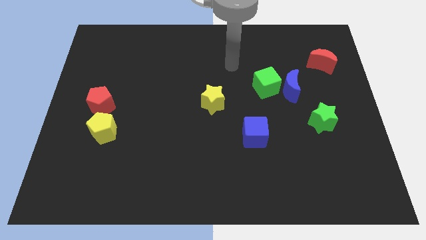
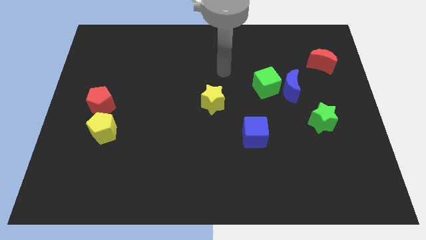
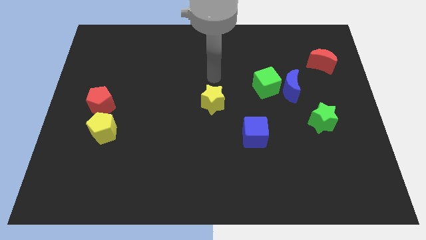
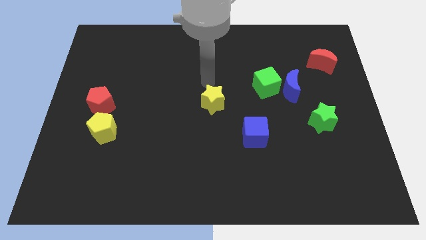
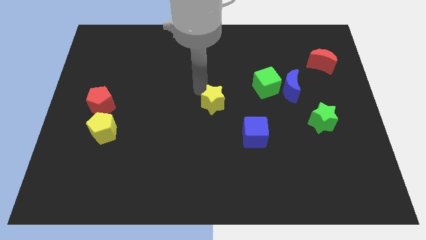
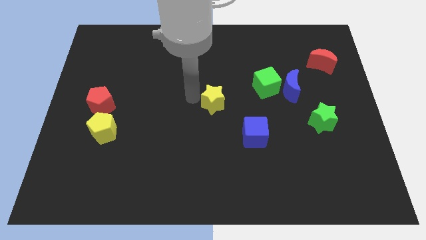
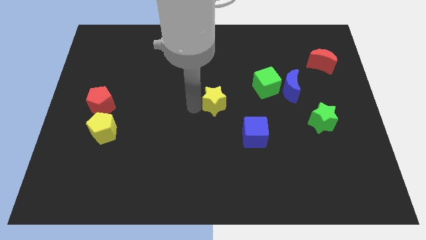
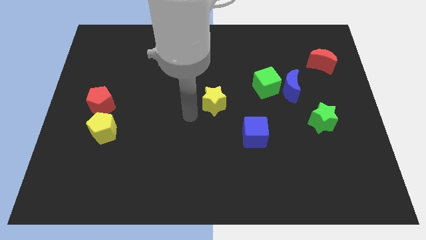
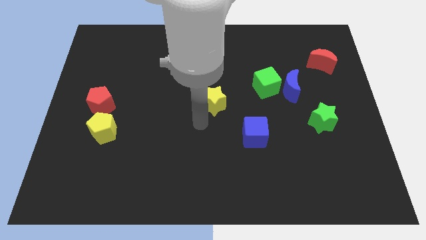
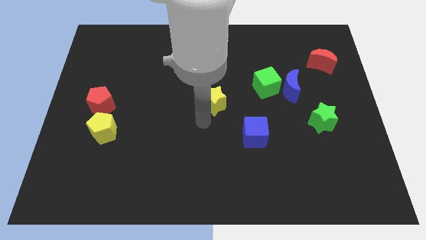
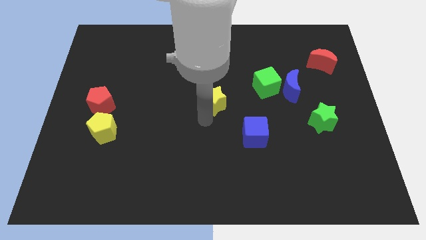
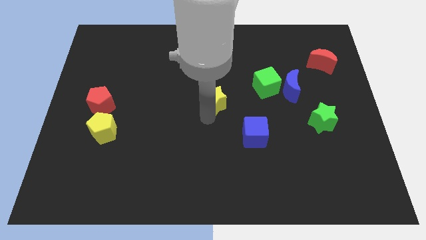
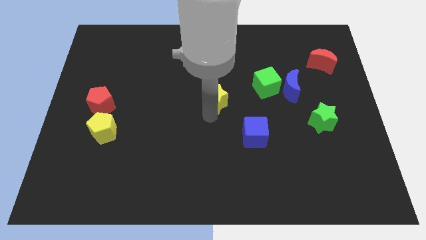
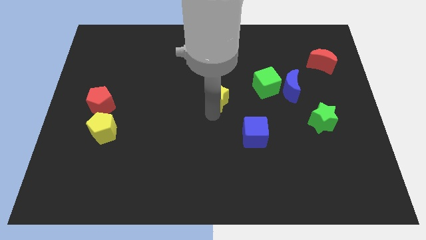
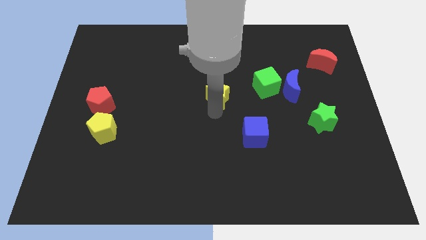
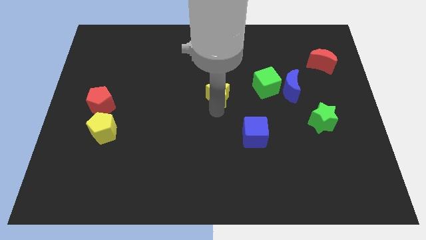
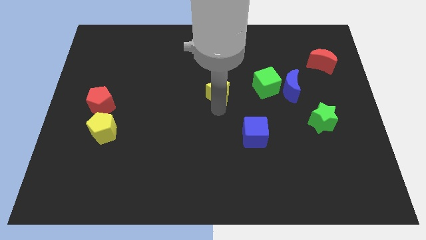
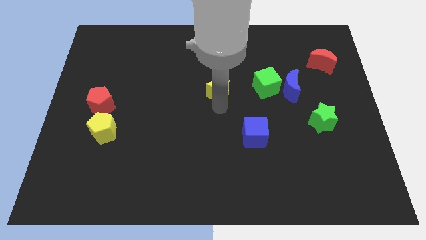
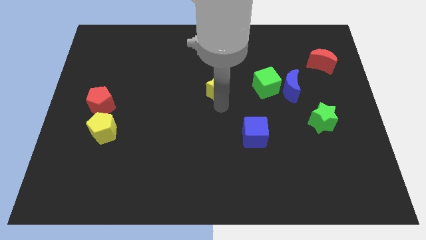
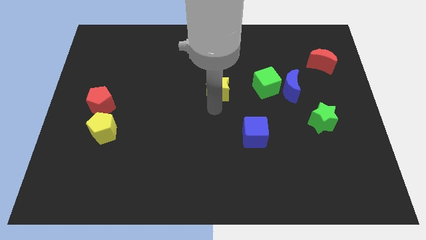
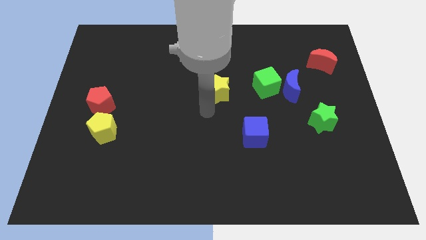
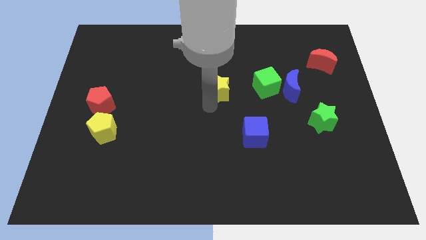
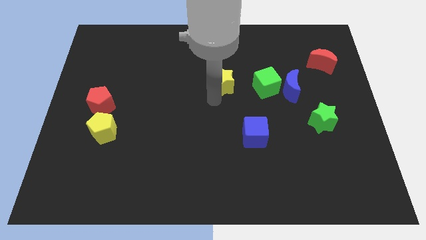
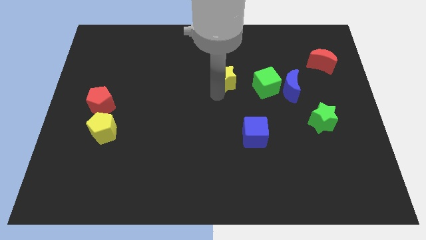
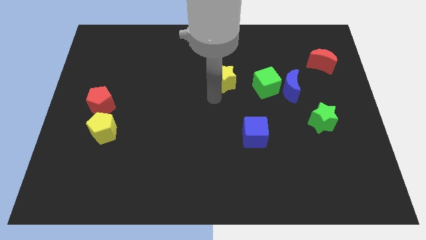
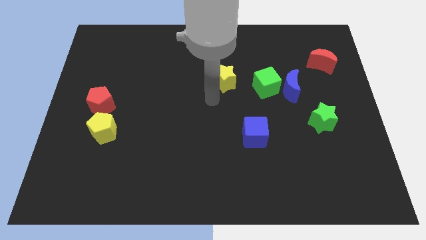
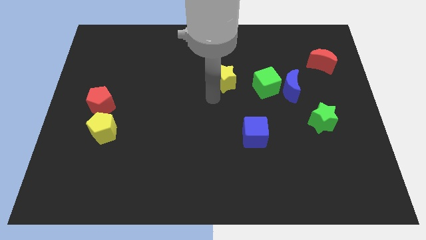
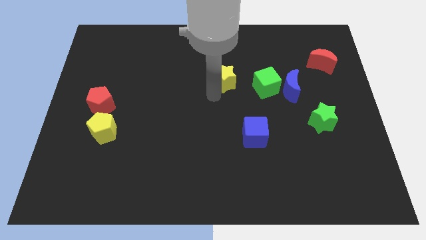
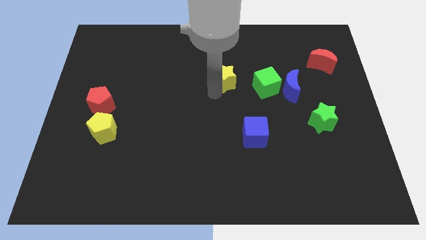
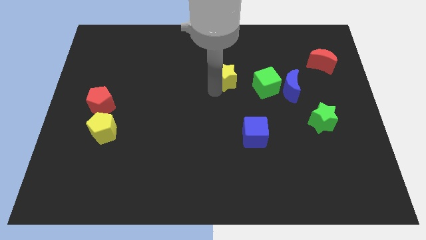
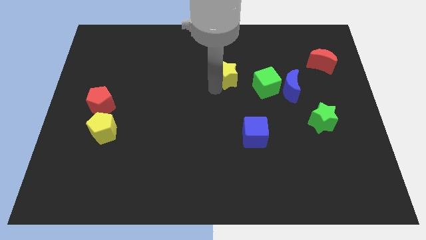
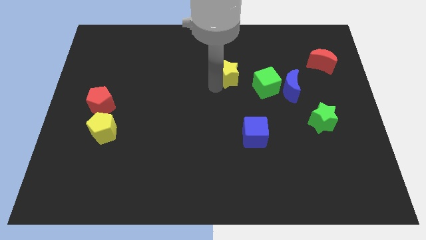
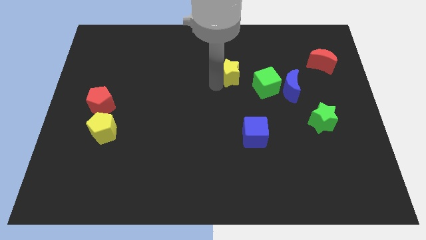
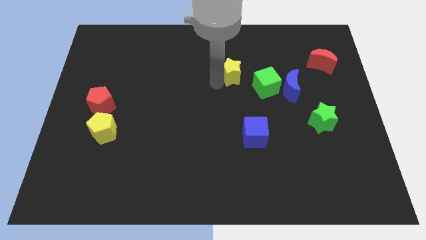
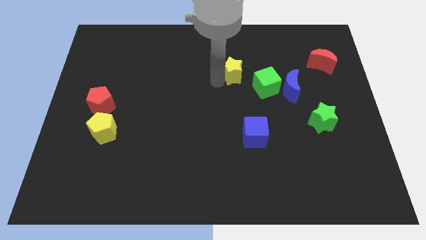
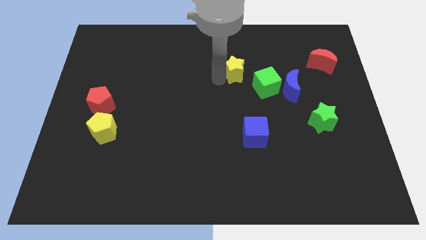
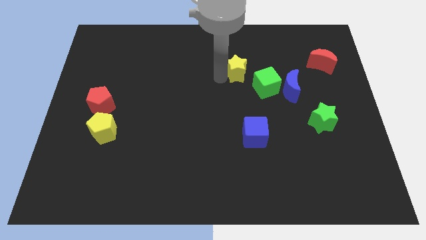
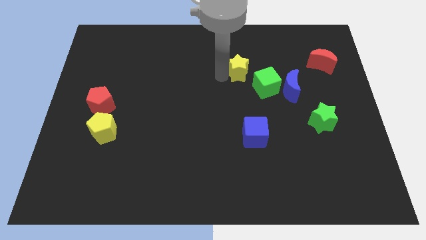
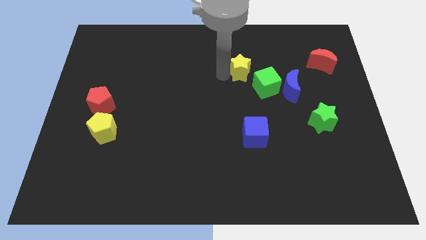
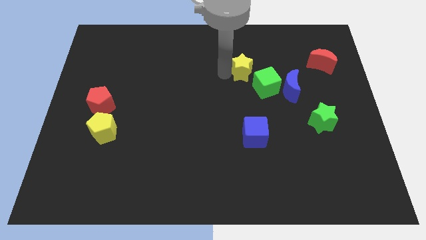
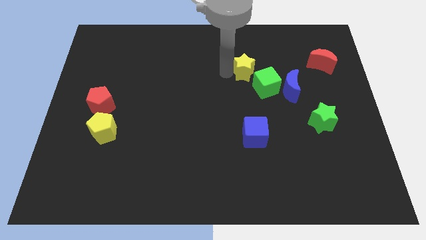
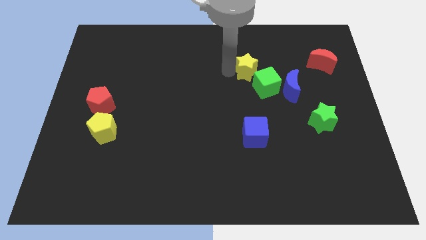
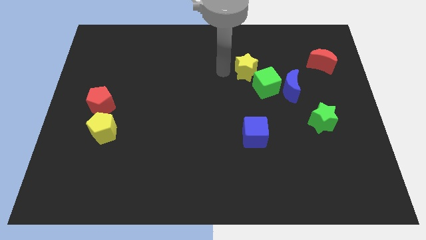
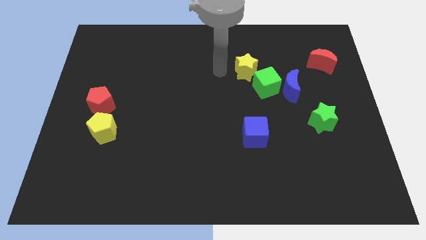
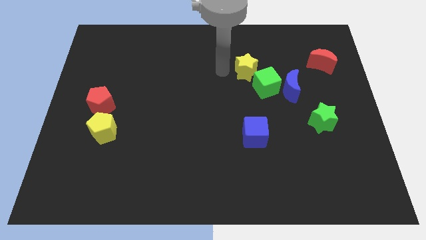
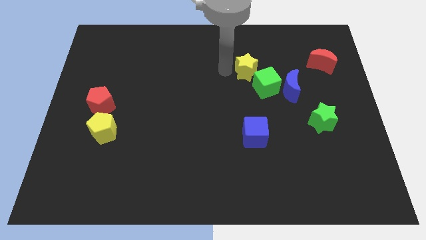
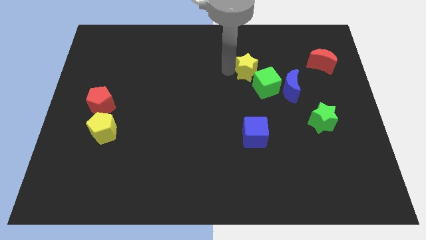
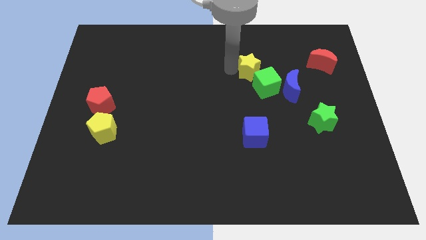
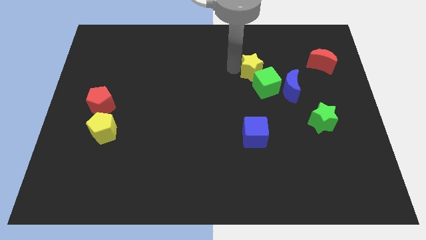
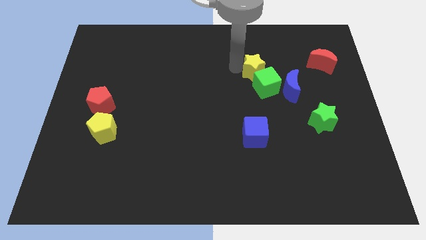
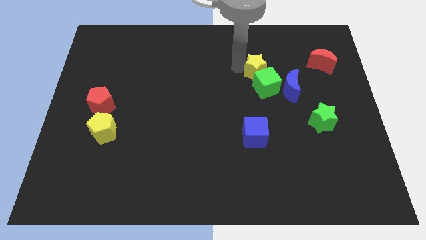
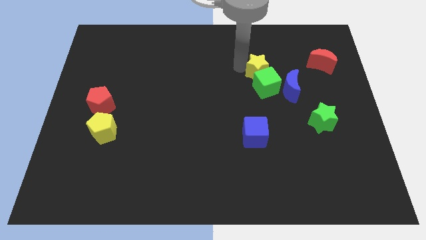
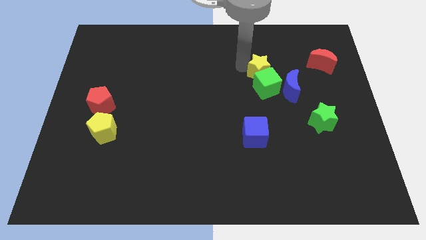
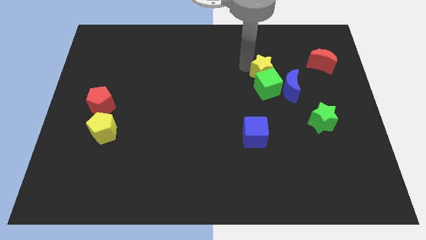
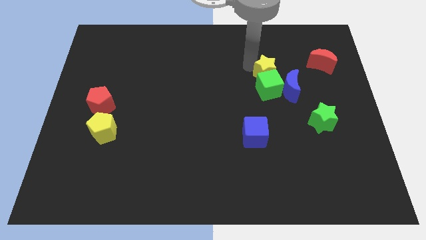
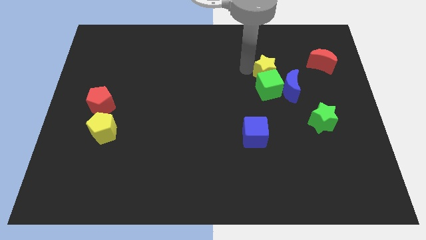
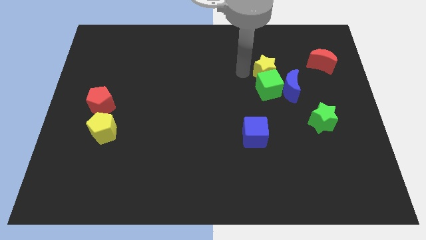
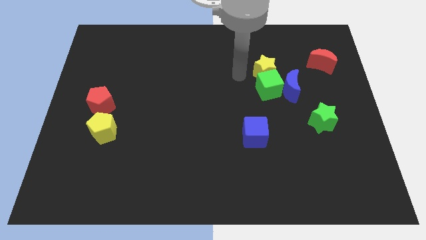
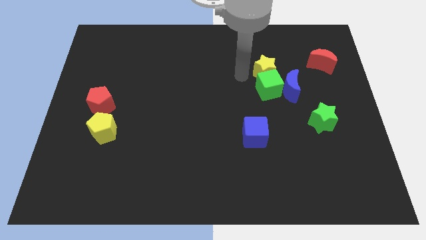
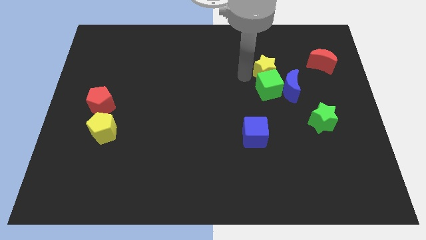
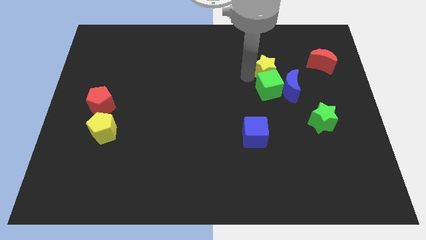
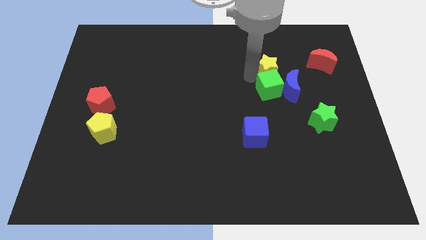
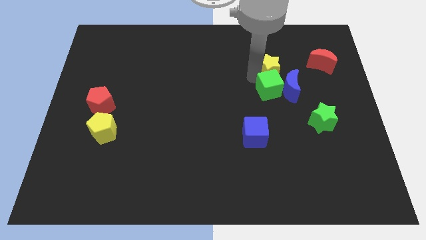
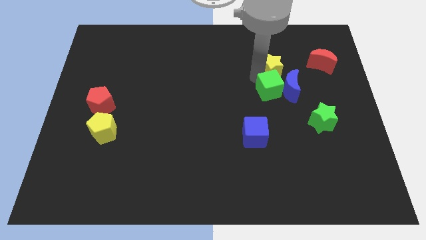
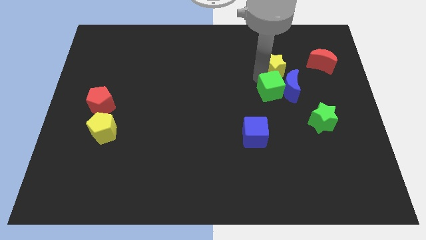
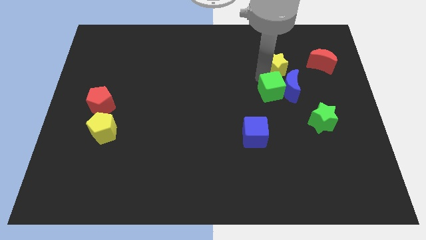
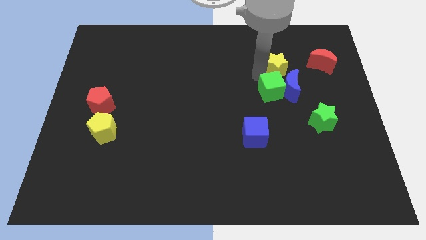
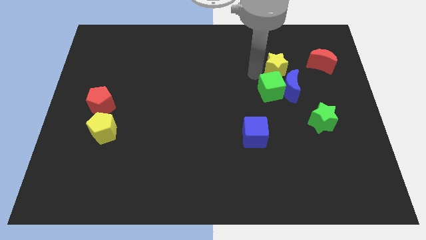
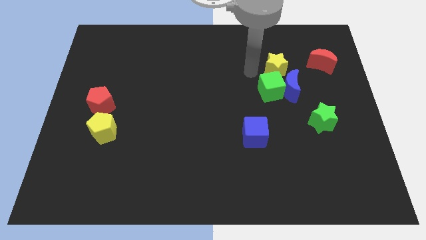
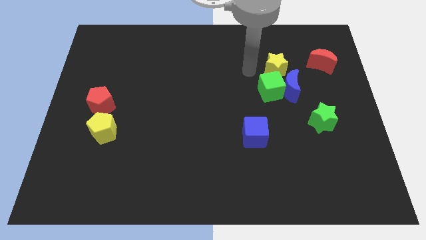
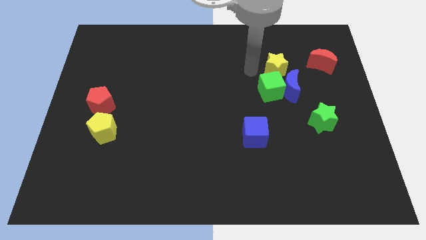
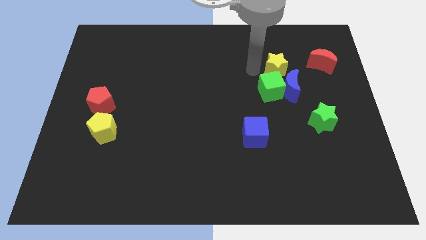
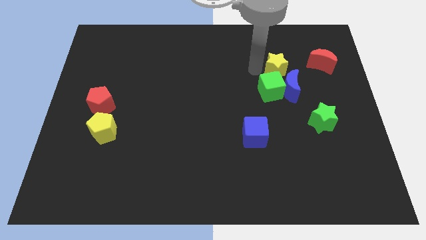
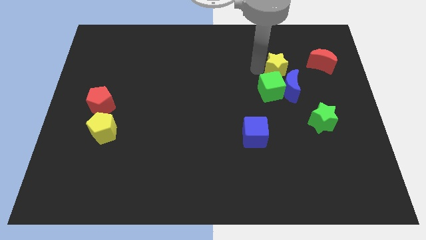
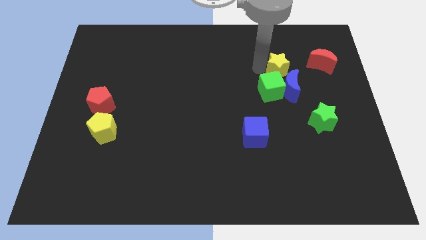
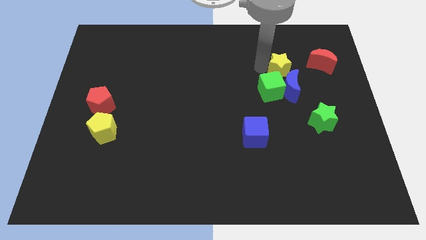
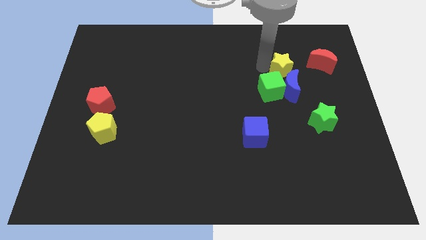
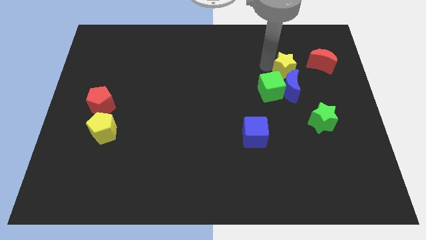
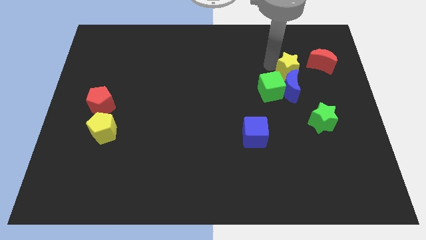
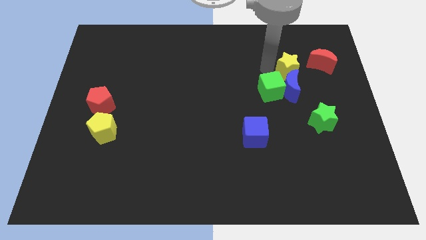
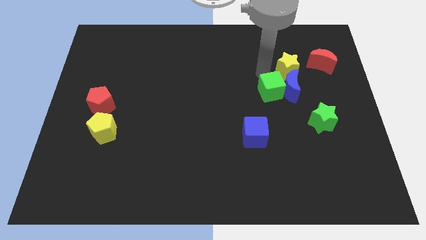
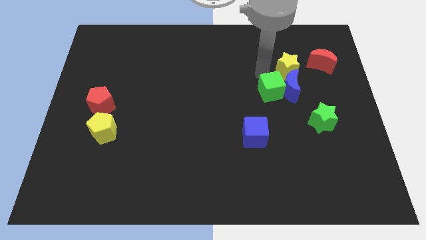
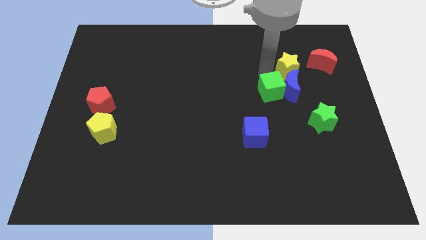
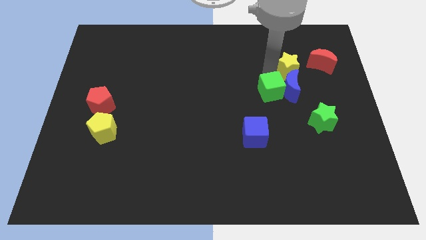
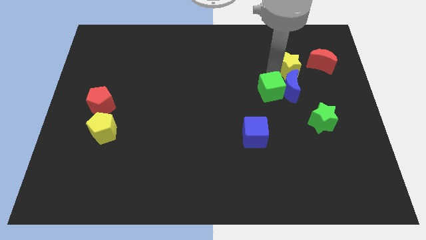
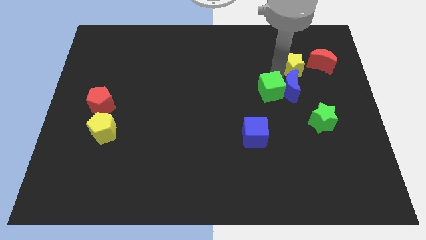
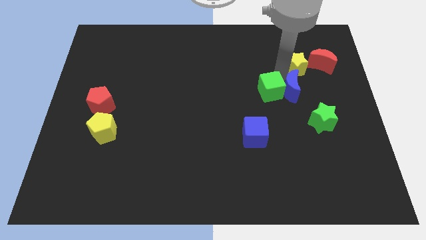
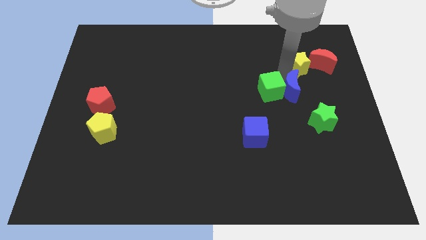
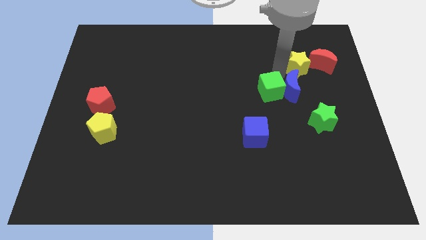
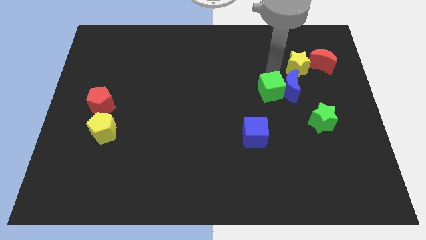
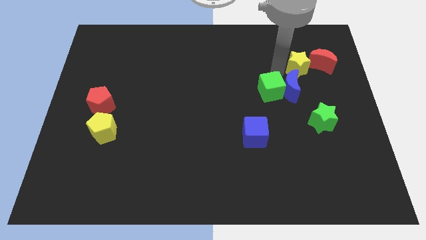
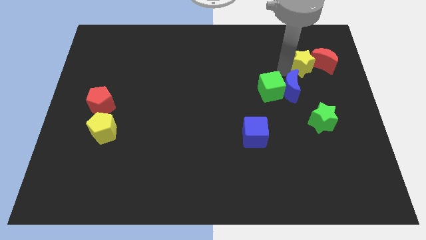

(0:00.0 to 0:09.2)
slide the yellow star close to the red moon
